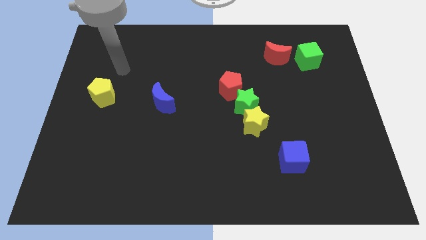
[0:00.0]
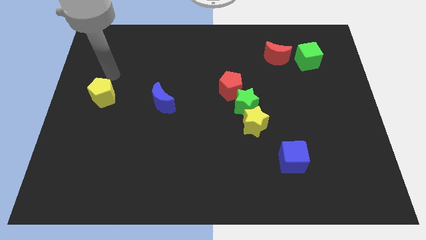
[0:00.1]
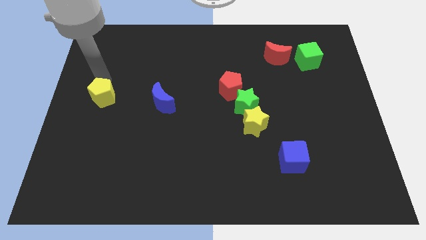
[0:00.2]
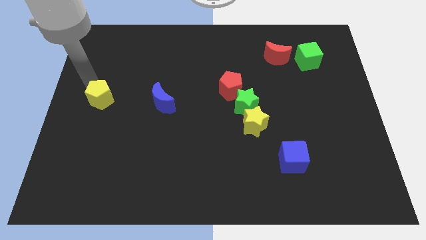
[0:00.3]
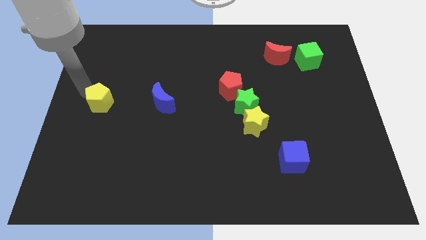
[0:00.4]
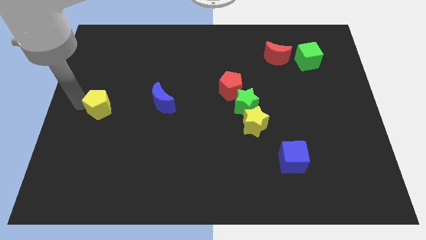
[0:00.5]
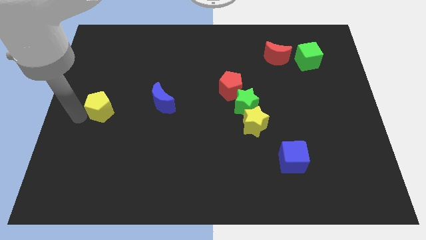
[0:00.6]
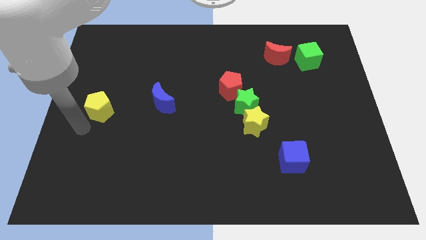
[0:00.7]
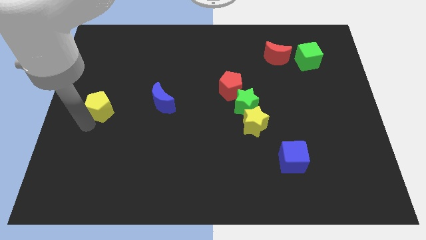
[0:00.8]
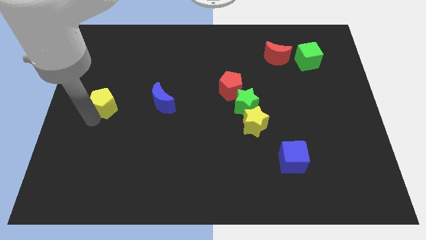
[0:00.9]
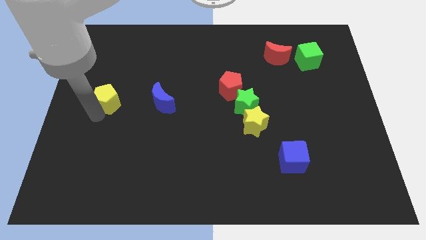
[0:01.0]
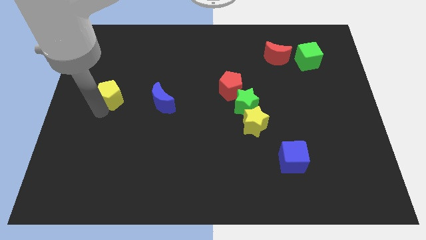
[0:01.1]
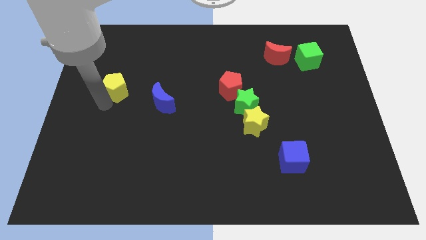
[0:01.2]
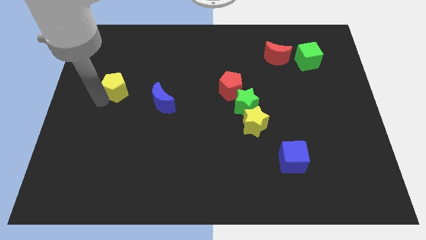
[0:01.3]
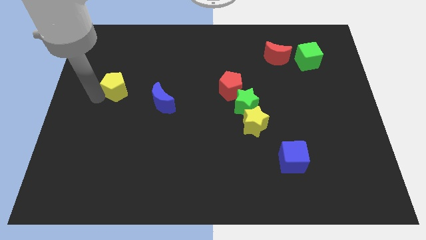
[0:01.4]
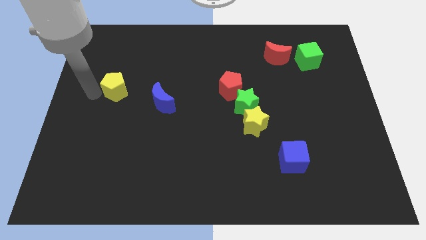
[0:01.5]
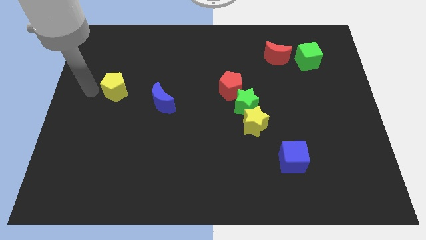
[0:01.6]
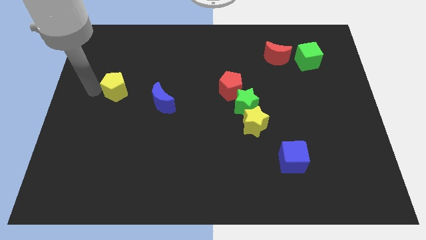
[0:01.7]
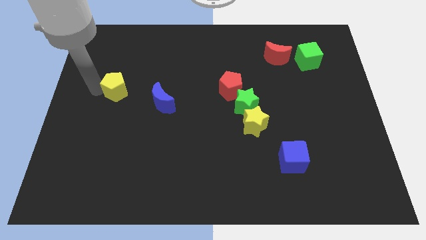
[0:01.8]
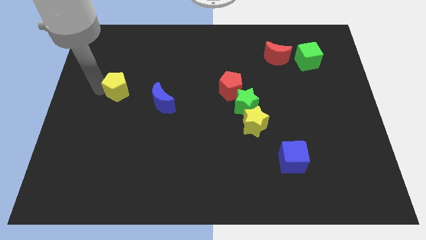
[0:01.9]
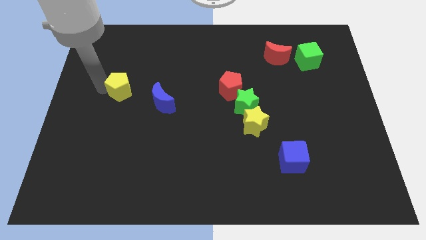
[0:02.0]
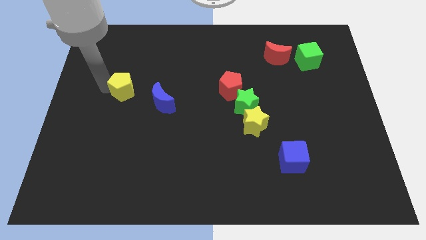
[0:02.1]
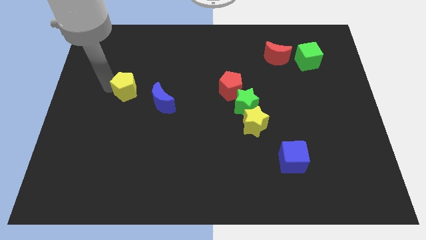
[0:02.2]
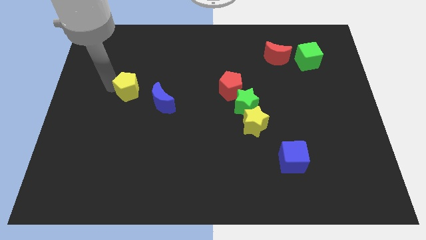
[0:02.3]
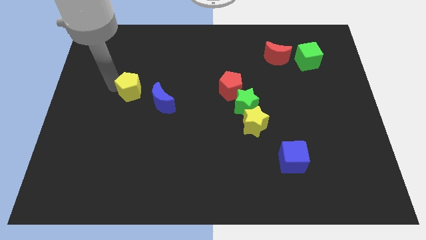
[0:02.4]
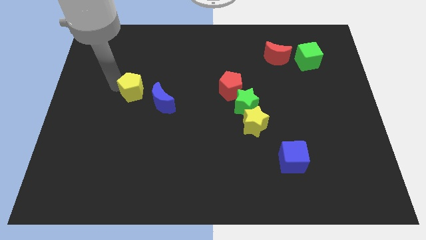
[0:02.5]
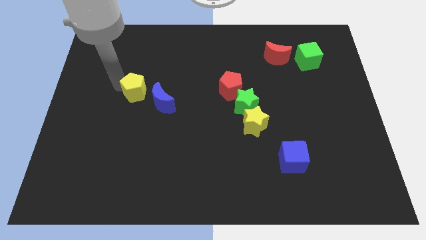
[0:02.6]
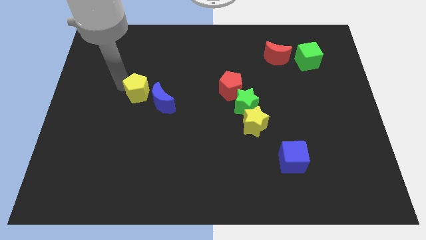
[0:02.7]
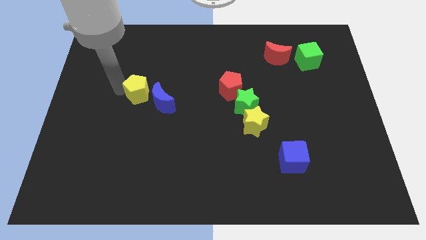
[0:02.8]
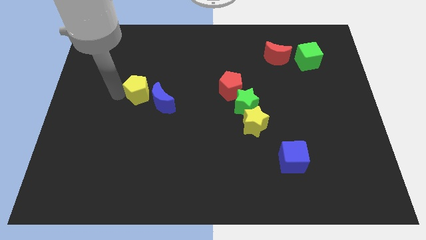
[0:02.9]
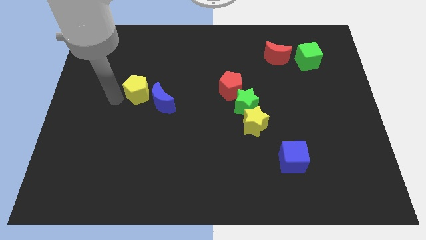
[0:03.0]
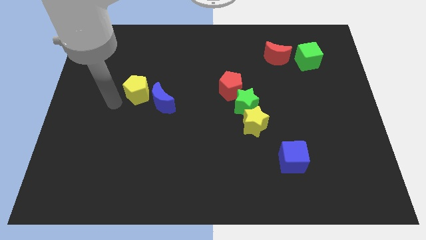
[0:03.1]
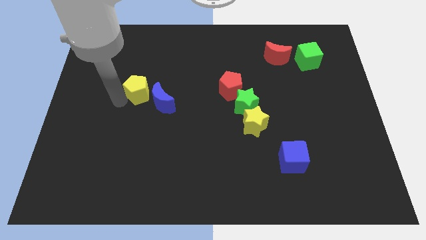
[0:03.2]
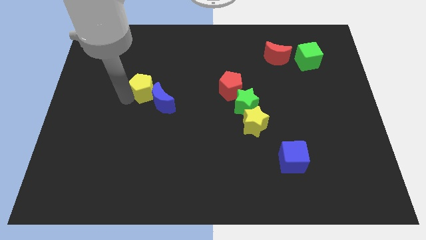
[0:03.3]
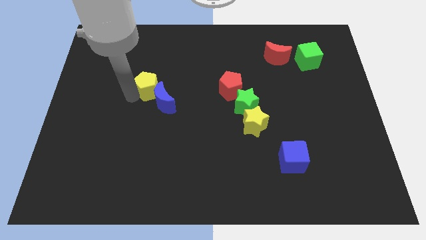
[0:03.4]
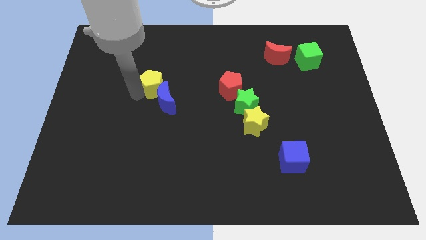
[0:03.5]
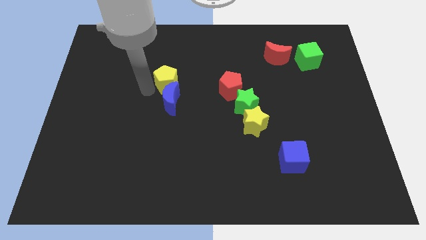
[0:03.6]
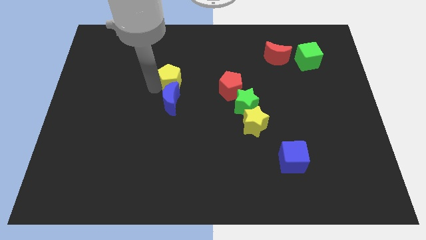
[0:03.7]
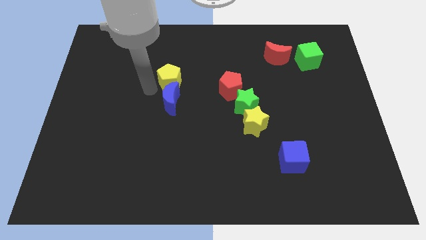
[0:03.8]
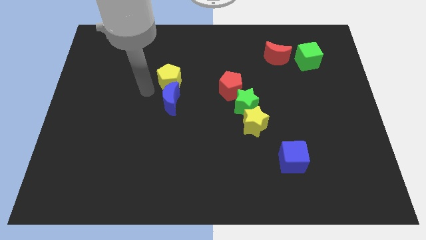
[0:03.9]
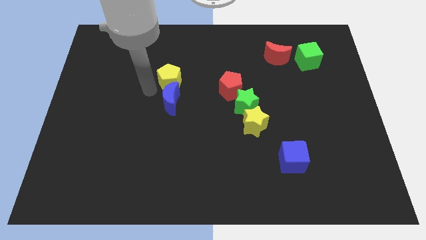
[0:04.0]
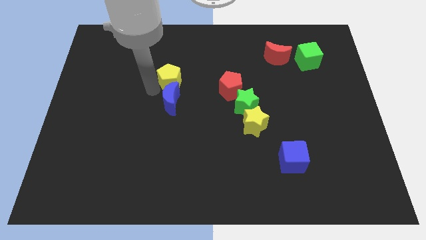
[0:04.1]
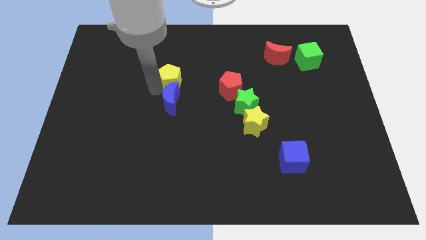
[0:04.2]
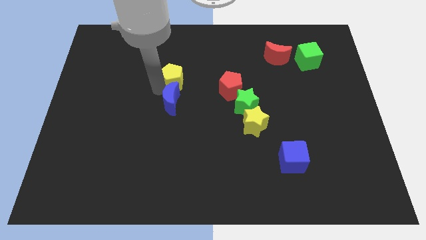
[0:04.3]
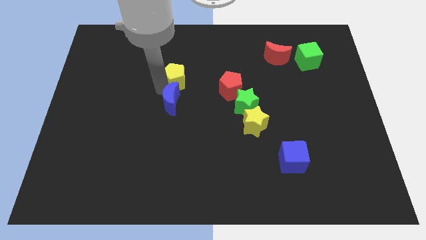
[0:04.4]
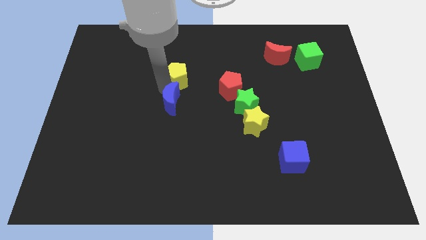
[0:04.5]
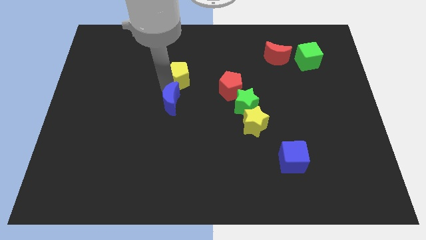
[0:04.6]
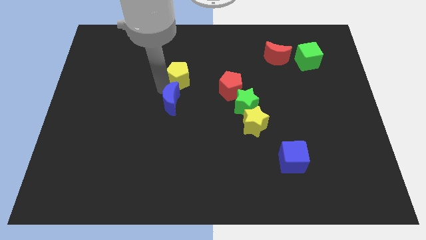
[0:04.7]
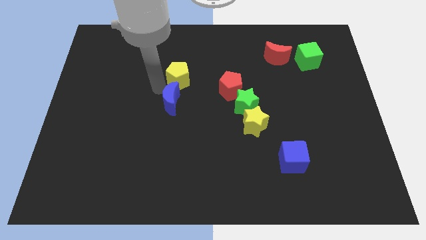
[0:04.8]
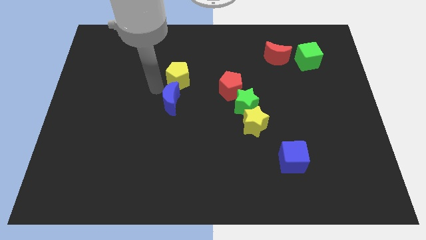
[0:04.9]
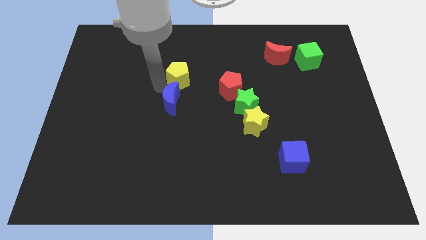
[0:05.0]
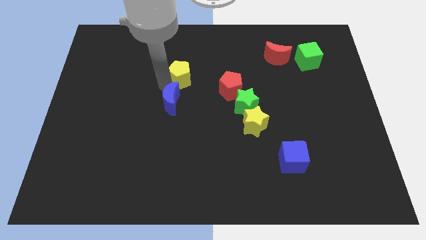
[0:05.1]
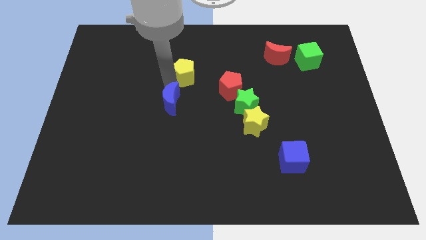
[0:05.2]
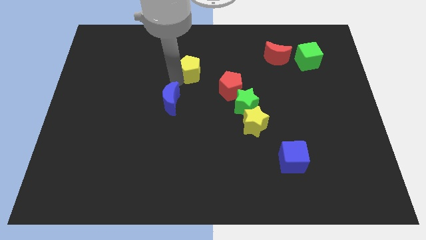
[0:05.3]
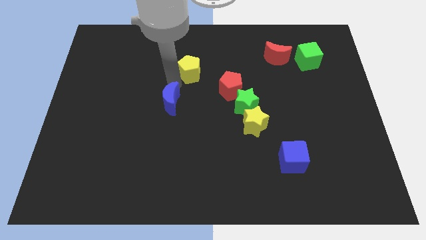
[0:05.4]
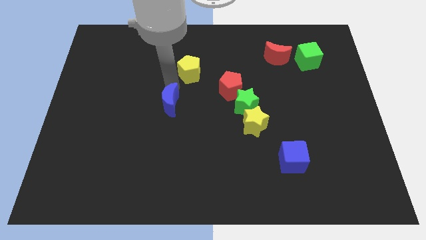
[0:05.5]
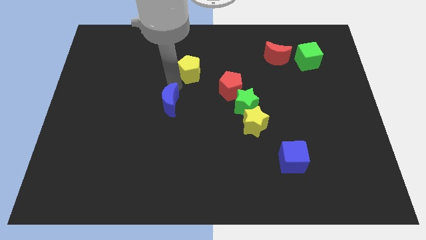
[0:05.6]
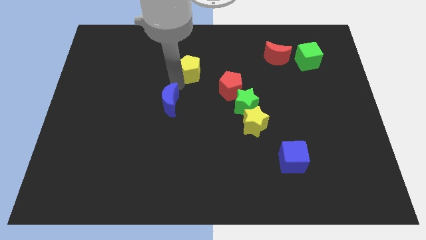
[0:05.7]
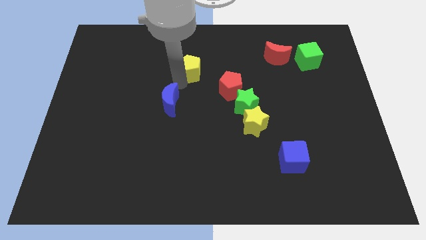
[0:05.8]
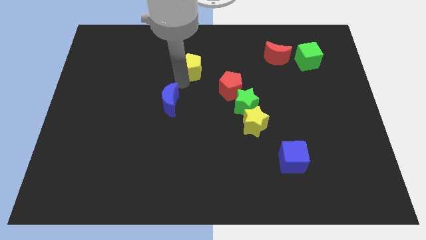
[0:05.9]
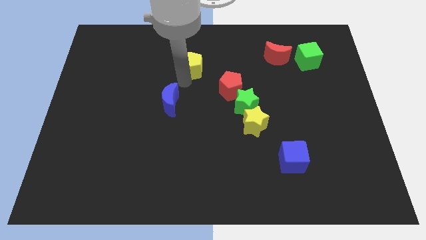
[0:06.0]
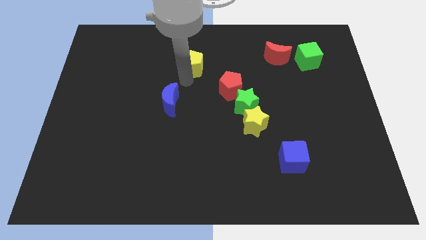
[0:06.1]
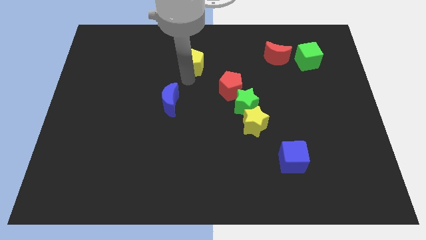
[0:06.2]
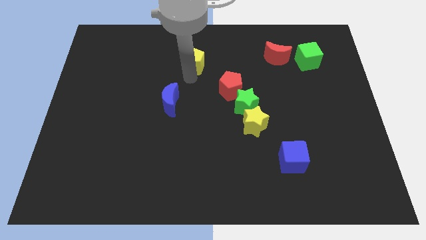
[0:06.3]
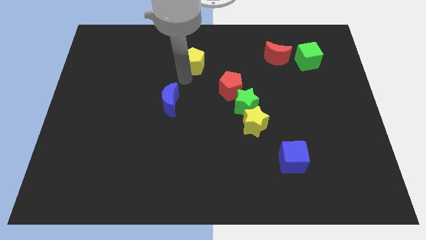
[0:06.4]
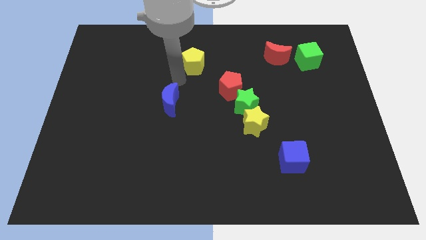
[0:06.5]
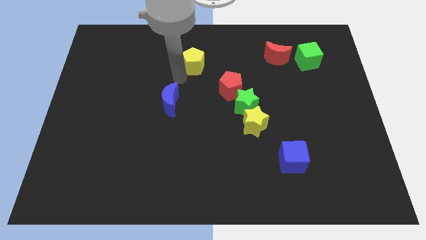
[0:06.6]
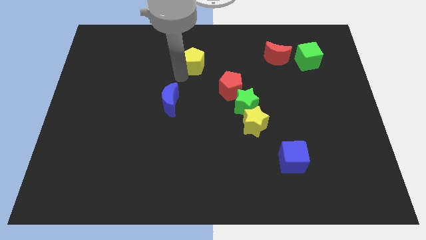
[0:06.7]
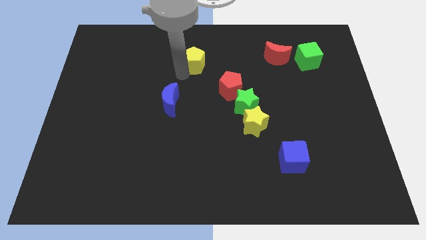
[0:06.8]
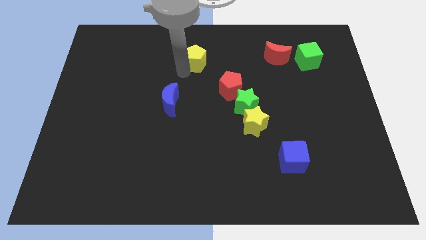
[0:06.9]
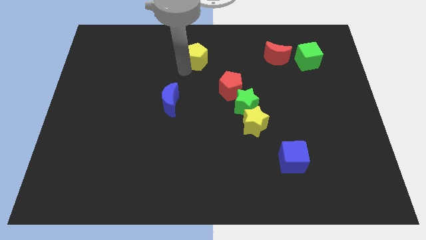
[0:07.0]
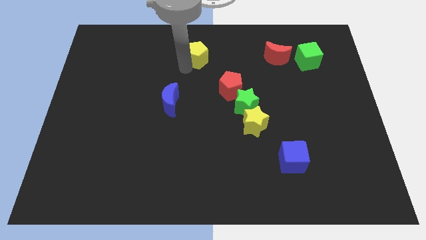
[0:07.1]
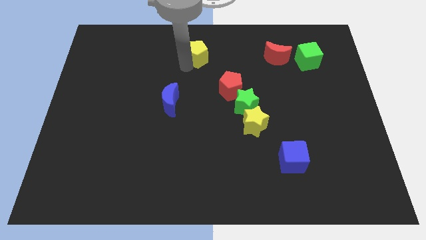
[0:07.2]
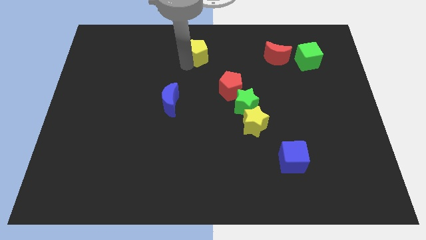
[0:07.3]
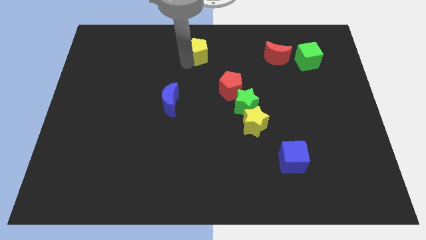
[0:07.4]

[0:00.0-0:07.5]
move the yellow pentagon to the top side
